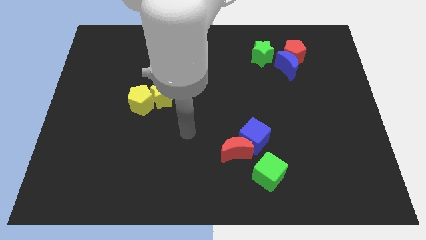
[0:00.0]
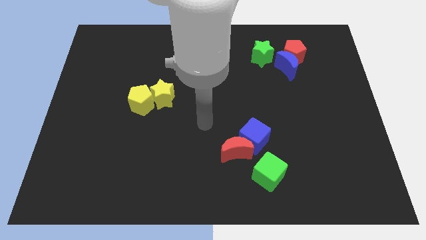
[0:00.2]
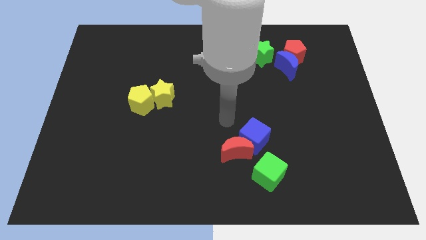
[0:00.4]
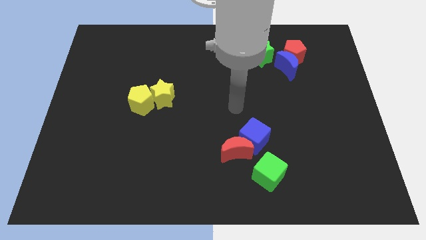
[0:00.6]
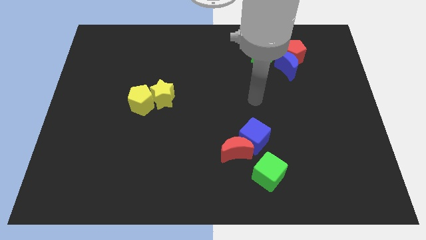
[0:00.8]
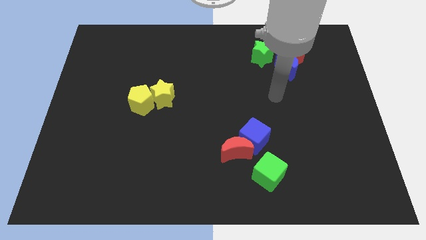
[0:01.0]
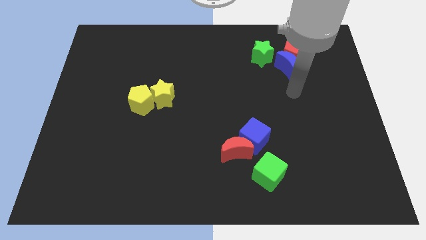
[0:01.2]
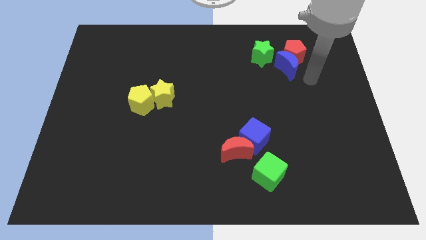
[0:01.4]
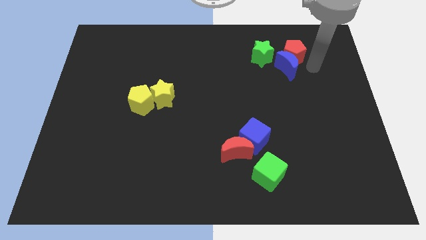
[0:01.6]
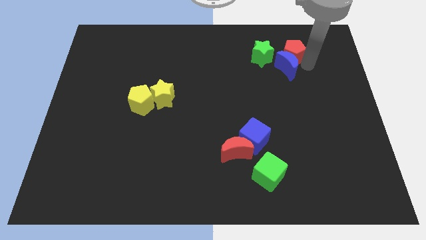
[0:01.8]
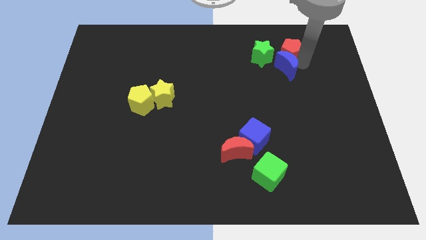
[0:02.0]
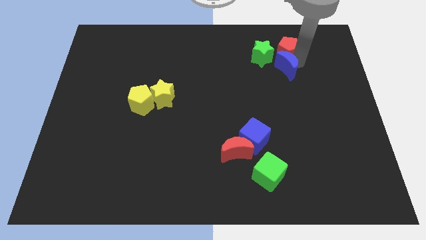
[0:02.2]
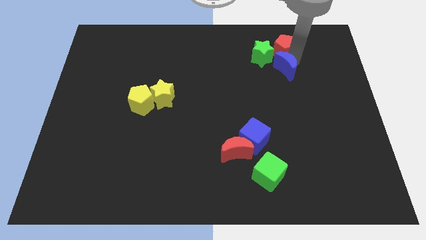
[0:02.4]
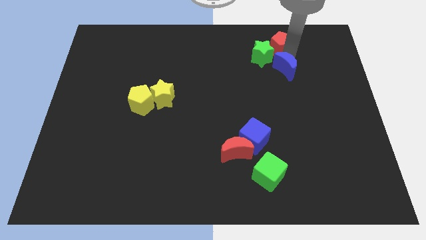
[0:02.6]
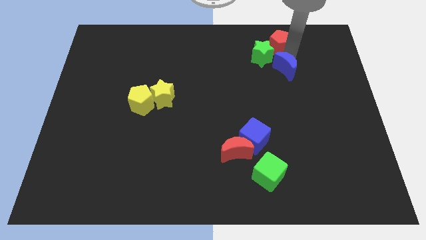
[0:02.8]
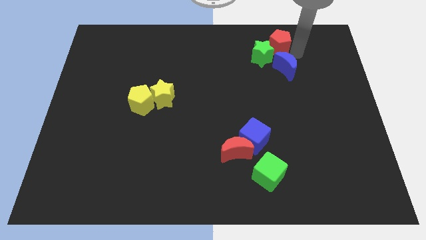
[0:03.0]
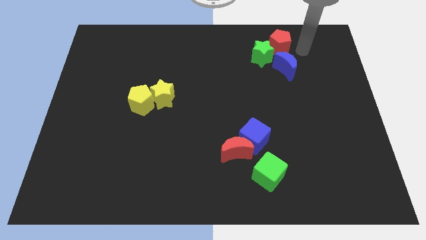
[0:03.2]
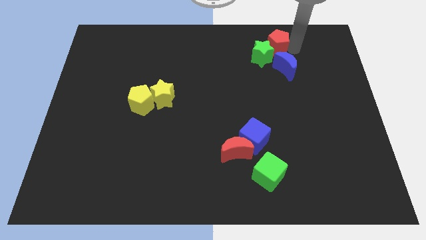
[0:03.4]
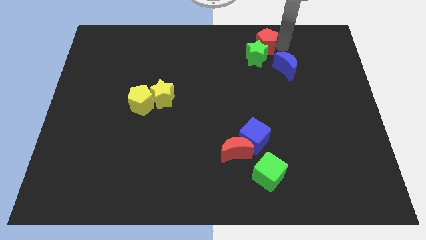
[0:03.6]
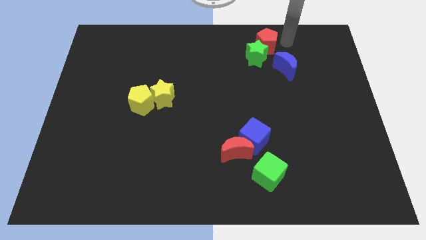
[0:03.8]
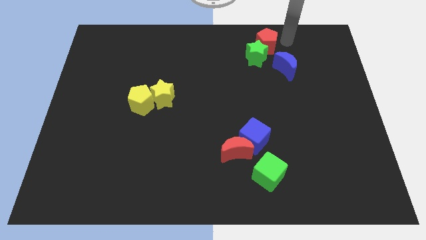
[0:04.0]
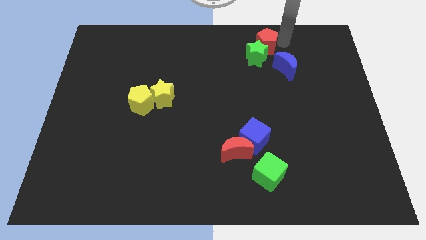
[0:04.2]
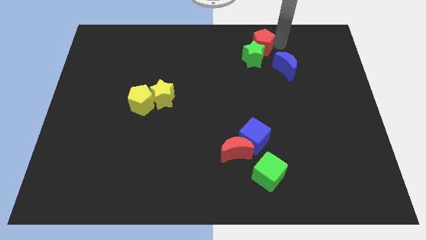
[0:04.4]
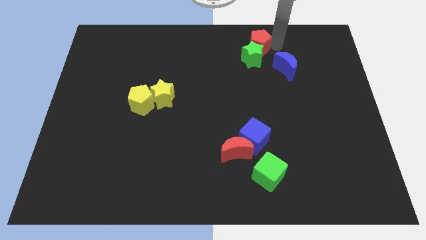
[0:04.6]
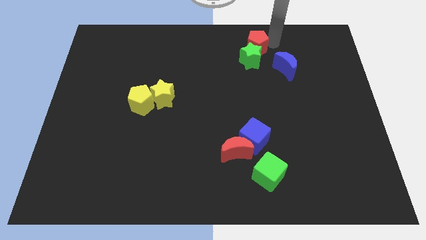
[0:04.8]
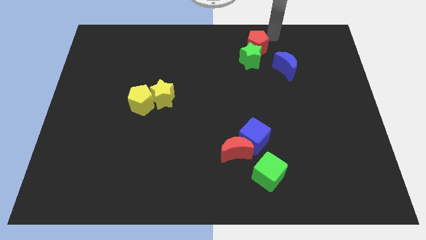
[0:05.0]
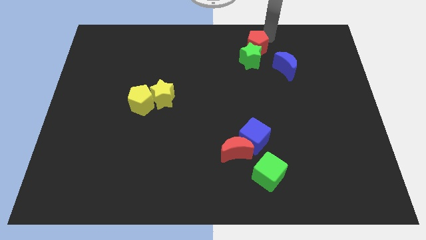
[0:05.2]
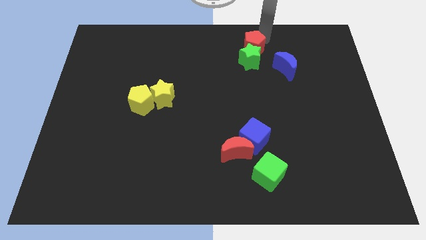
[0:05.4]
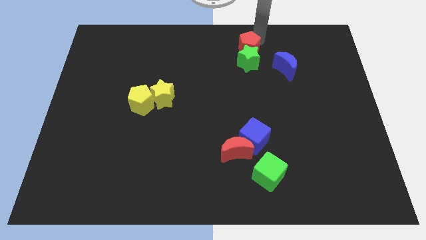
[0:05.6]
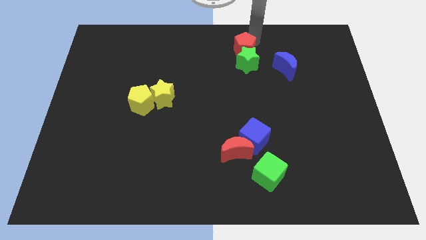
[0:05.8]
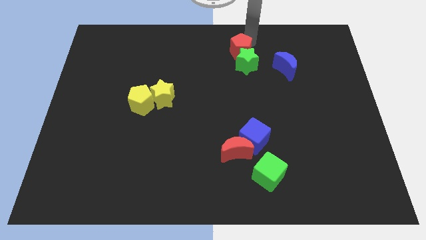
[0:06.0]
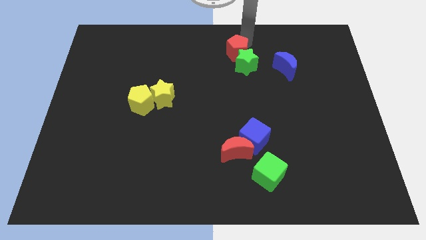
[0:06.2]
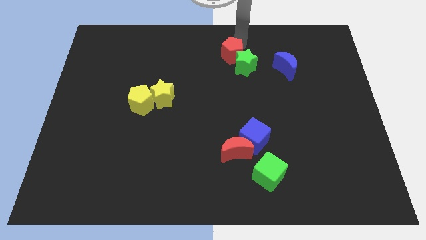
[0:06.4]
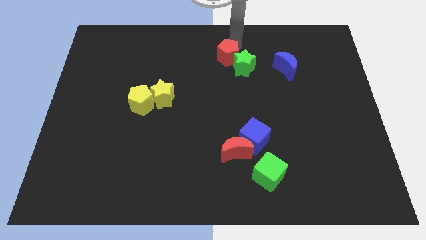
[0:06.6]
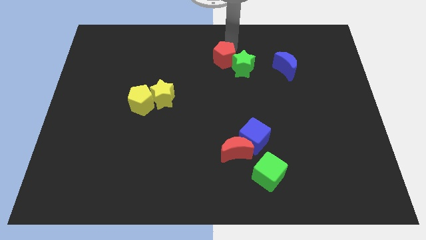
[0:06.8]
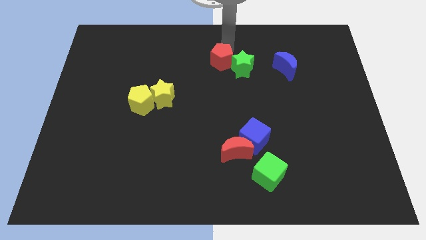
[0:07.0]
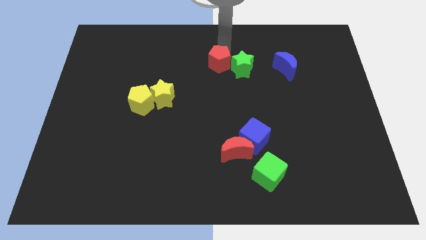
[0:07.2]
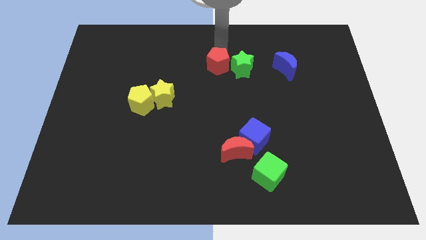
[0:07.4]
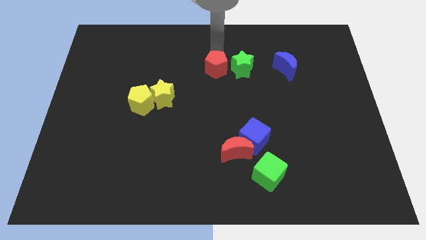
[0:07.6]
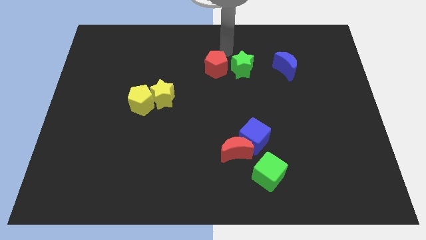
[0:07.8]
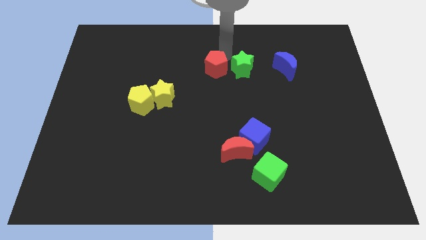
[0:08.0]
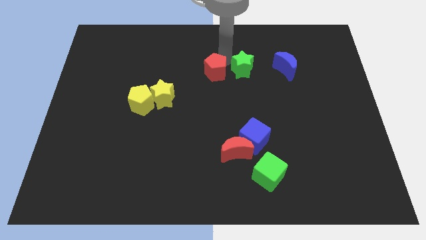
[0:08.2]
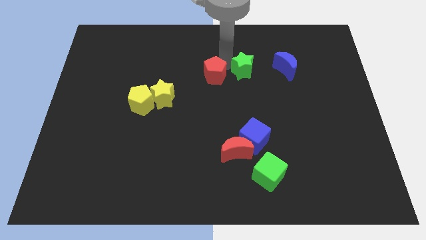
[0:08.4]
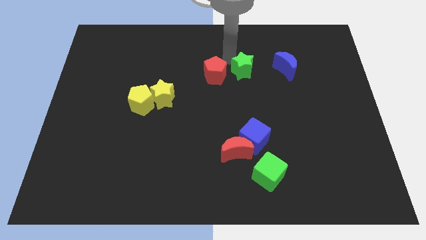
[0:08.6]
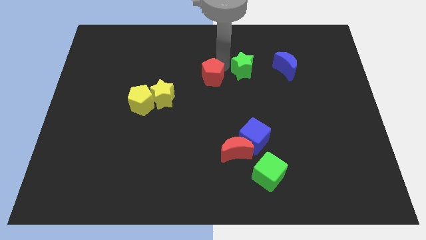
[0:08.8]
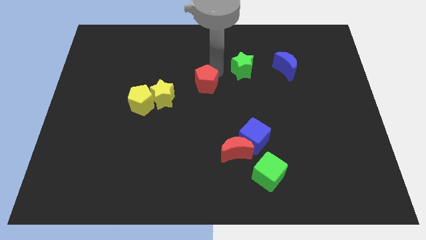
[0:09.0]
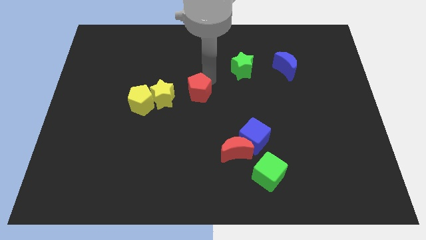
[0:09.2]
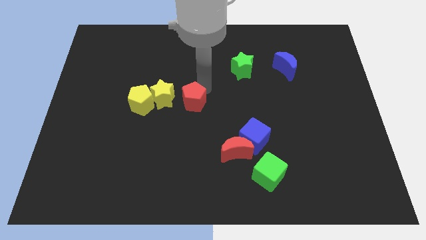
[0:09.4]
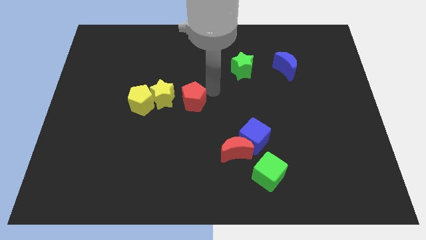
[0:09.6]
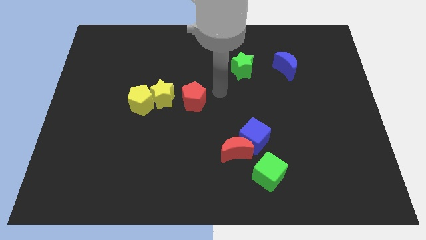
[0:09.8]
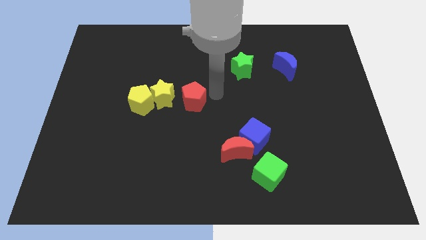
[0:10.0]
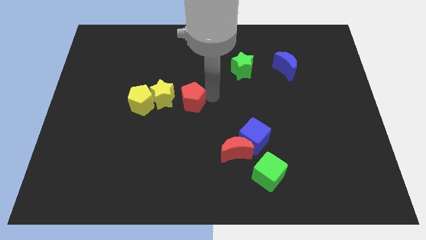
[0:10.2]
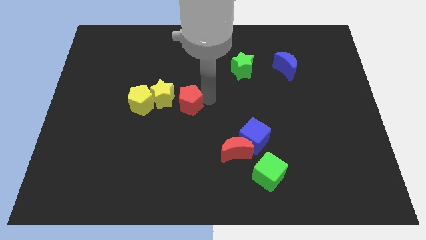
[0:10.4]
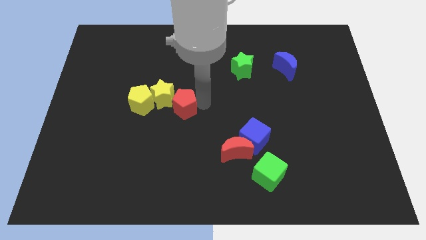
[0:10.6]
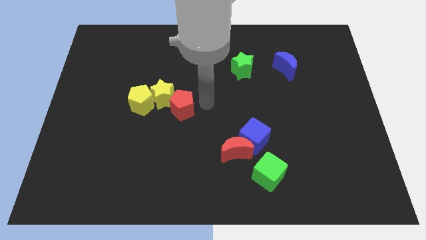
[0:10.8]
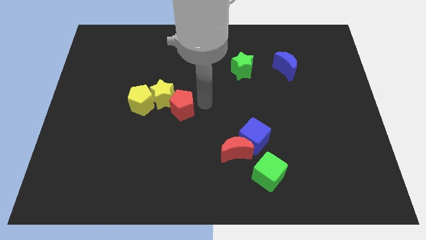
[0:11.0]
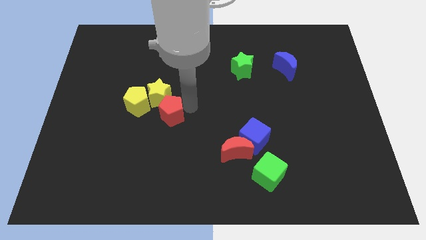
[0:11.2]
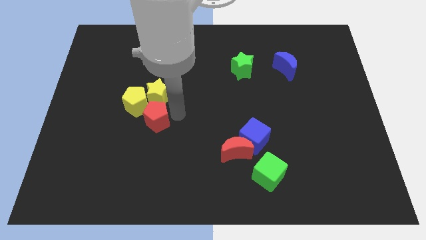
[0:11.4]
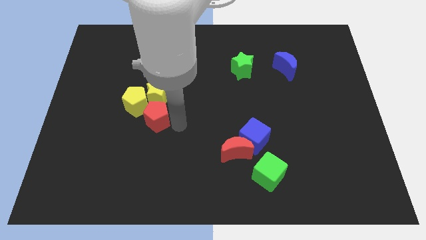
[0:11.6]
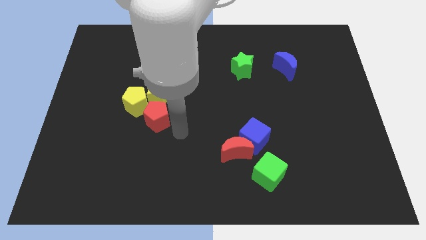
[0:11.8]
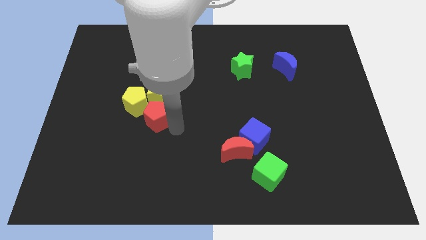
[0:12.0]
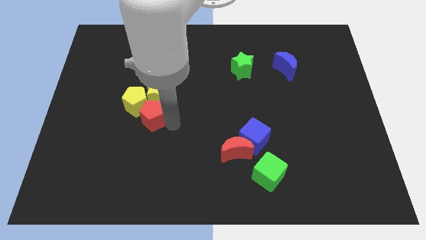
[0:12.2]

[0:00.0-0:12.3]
slide the red pentagon towards the yellow pentagon
